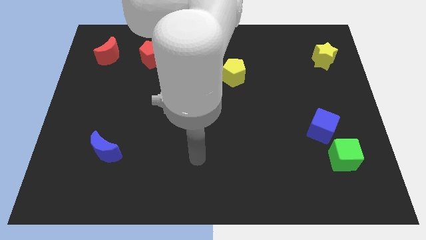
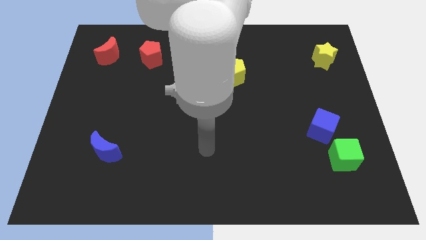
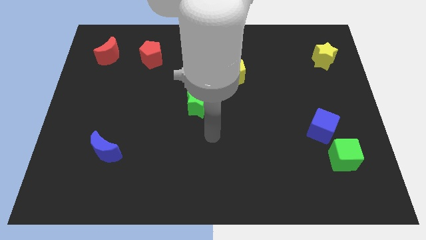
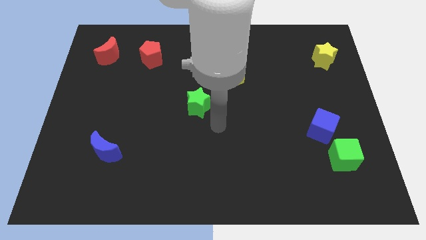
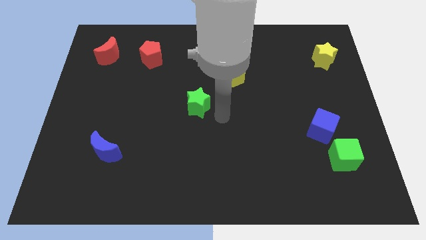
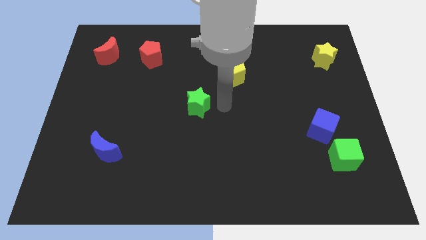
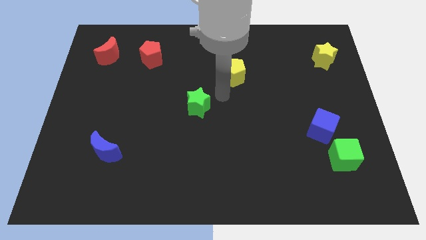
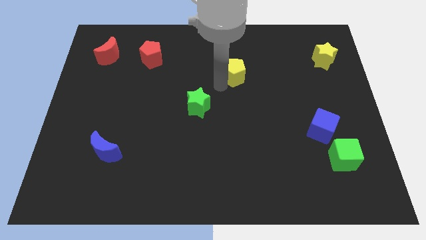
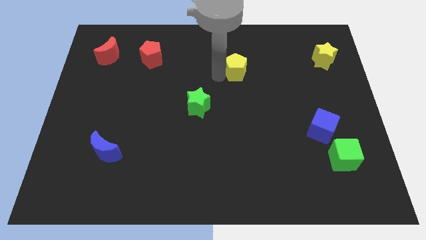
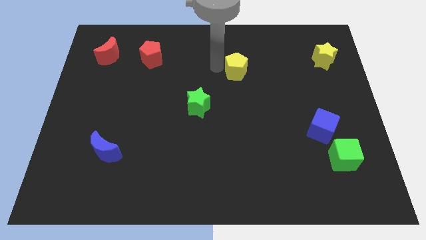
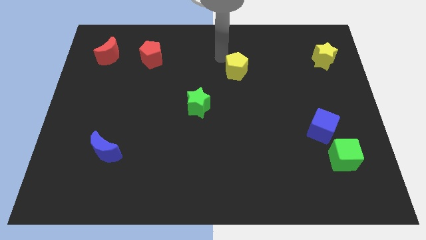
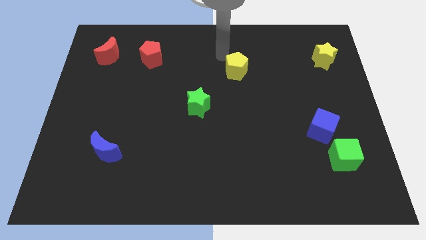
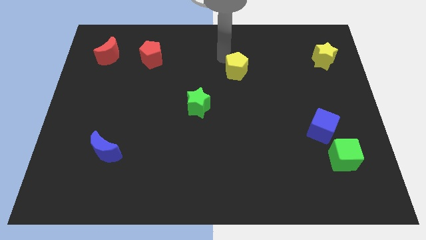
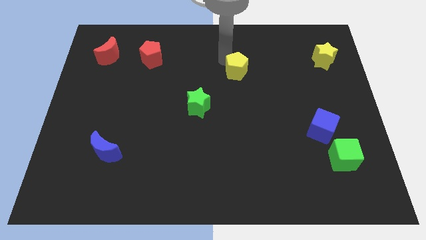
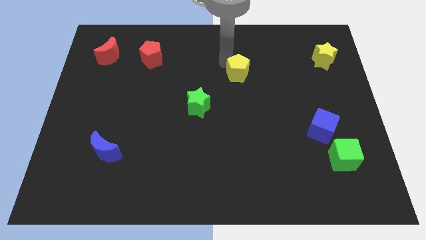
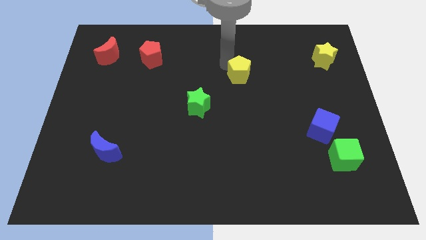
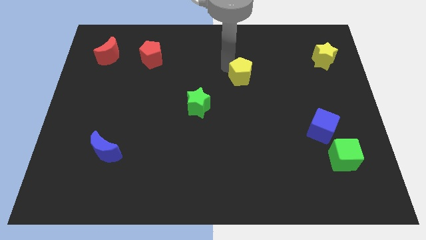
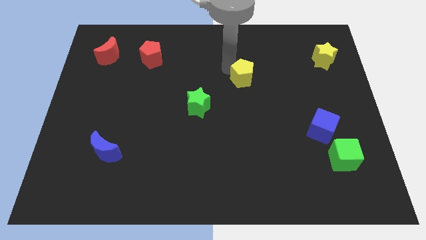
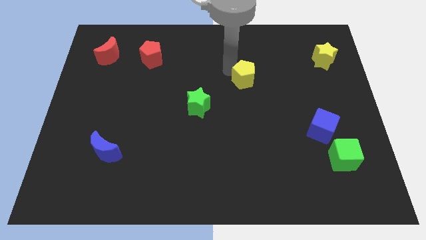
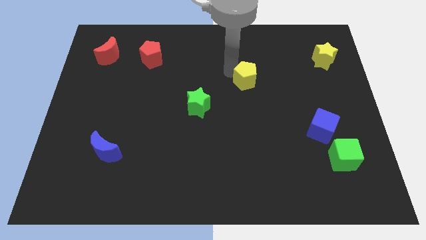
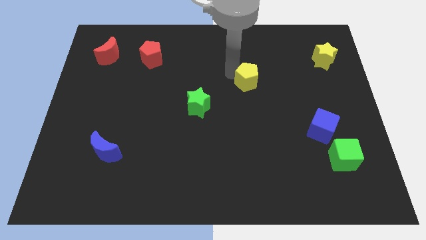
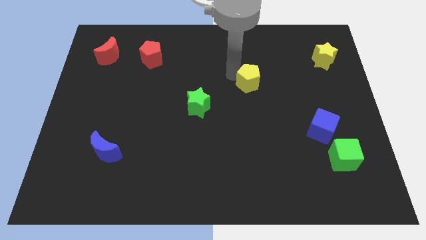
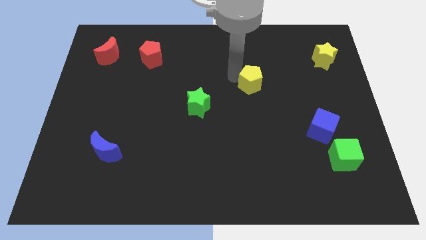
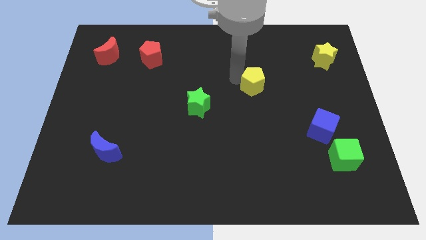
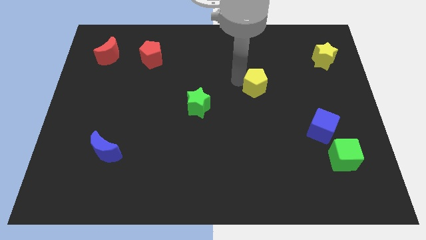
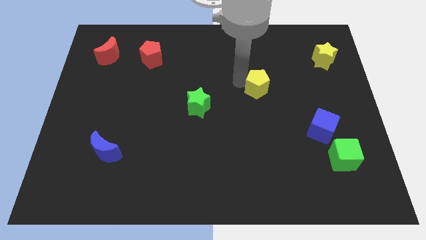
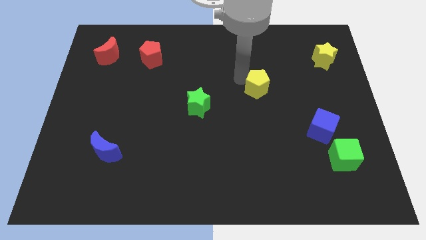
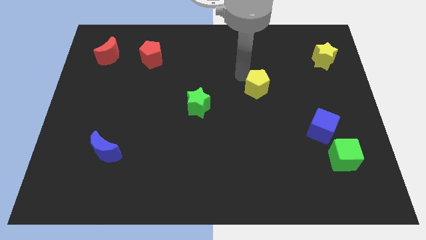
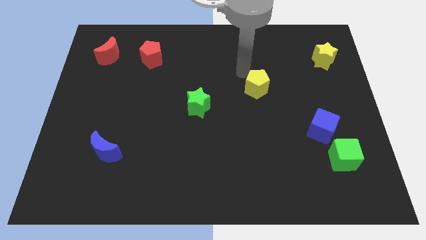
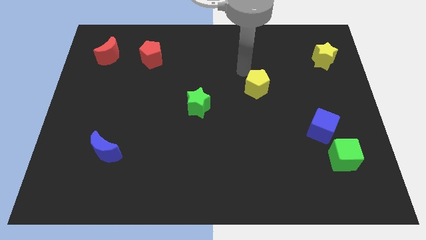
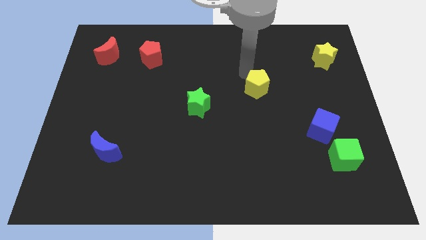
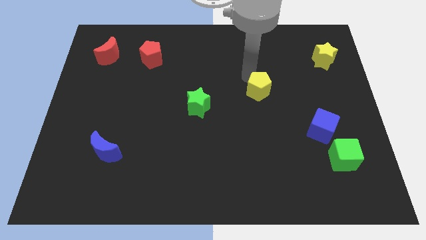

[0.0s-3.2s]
slightly move the yellow pentagon downwards and to the right

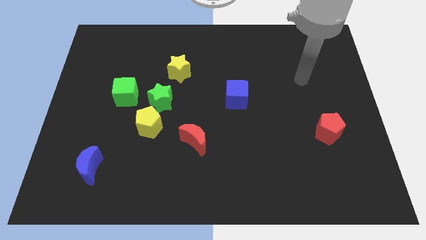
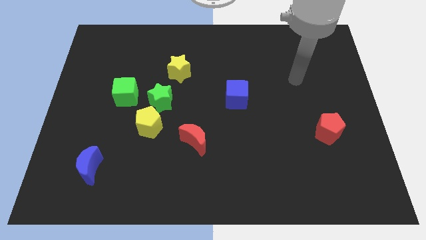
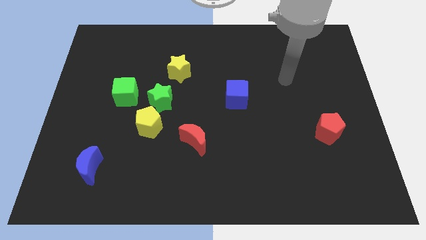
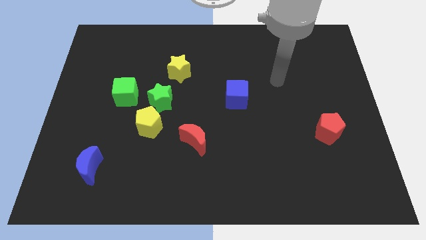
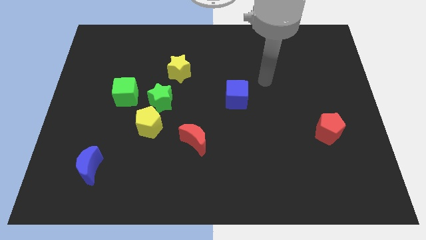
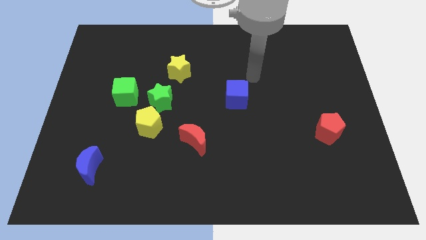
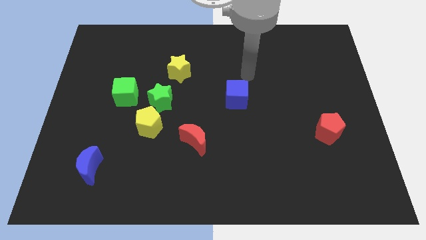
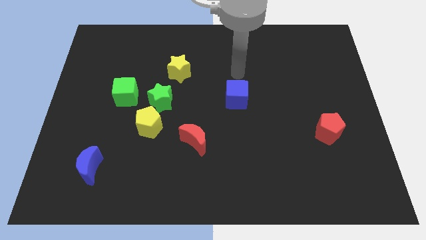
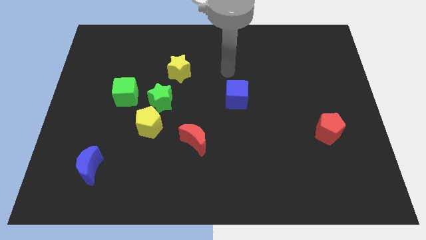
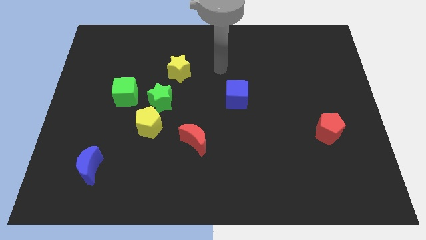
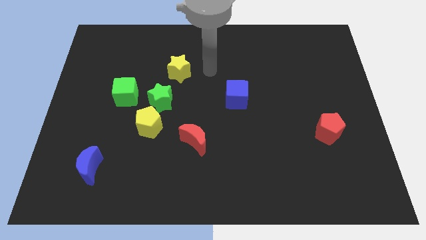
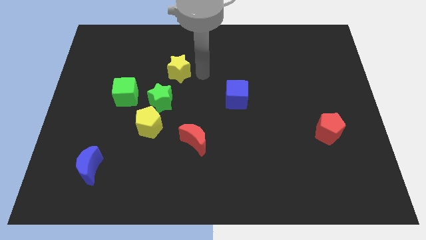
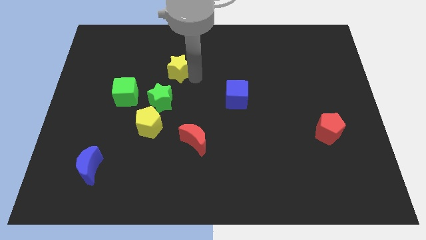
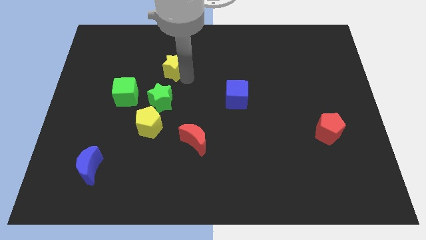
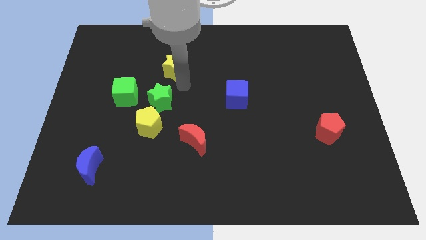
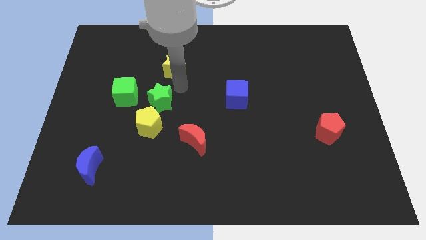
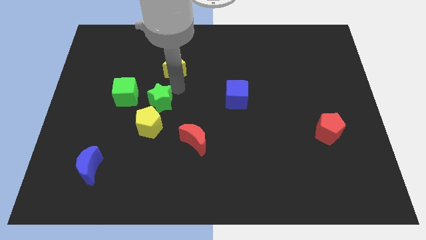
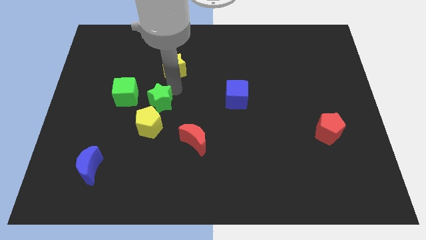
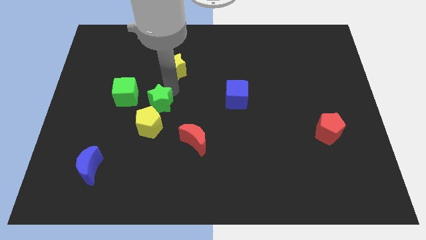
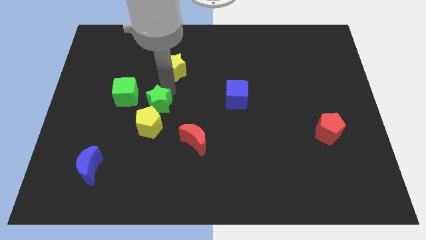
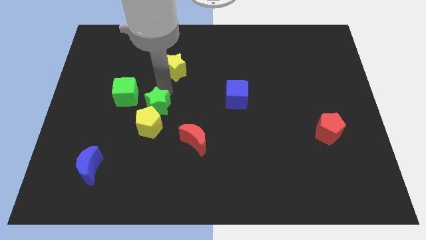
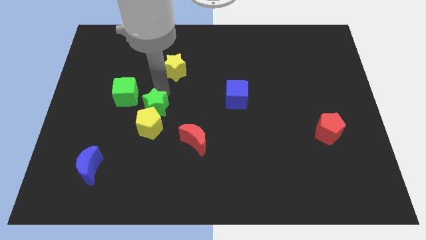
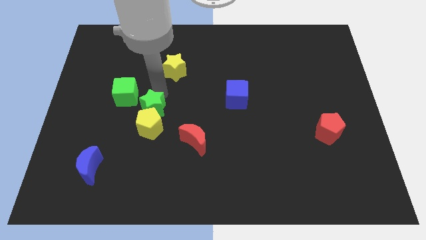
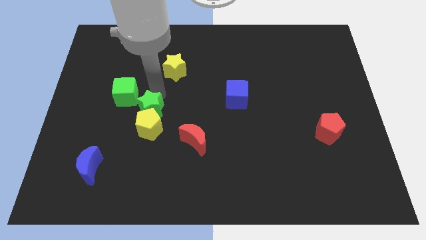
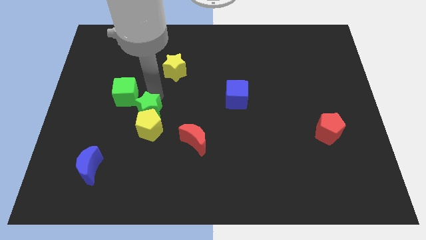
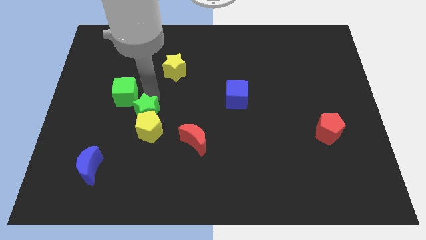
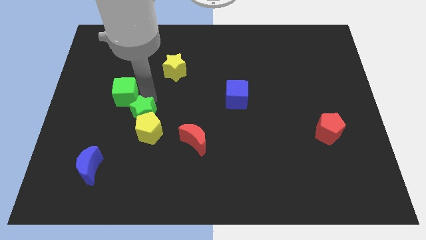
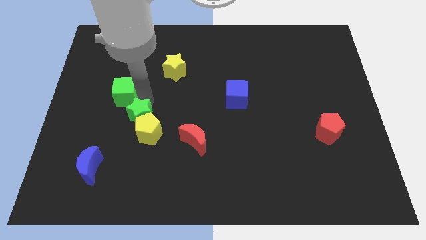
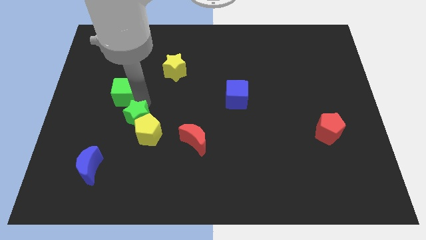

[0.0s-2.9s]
slide the green star diagonally down and to the left a little

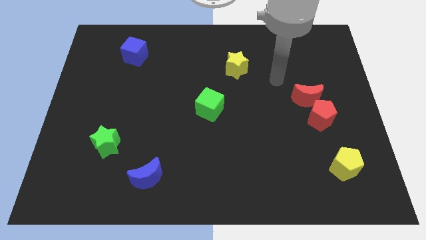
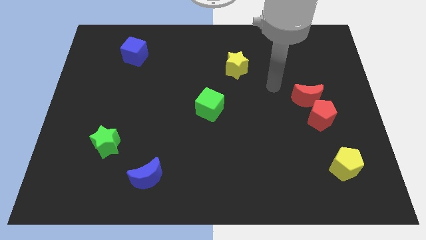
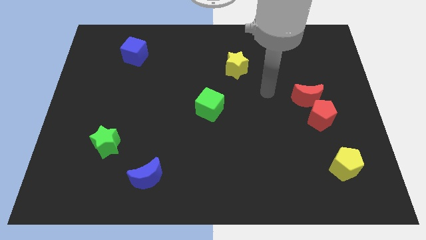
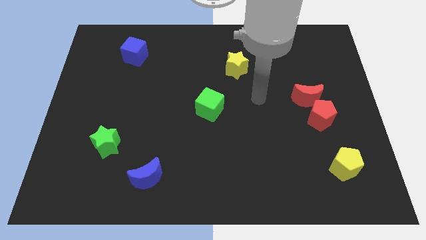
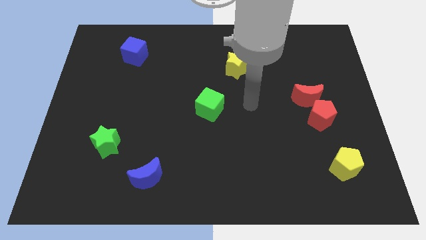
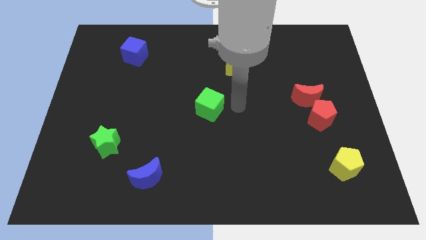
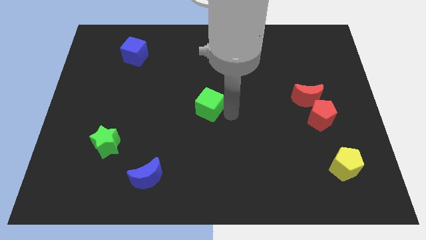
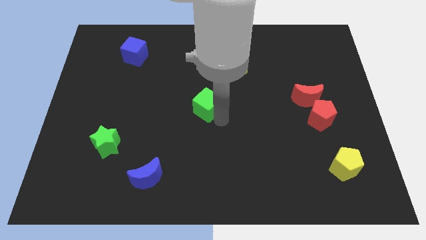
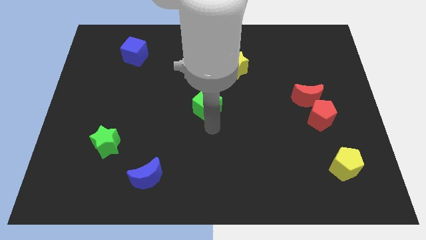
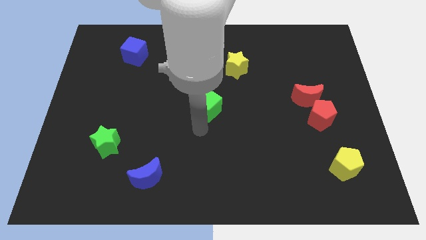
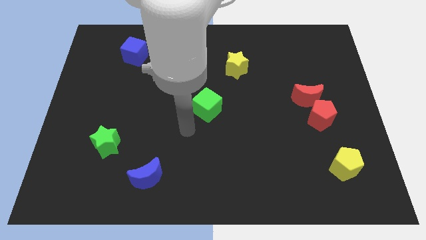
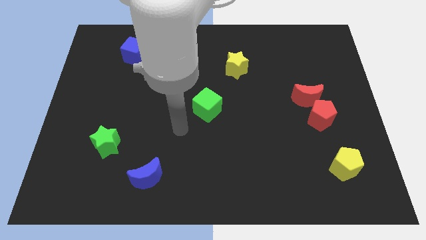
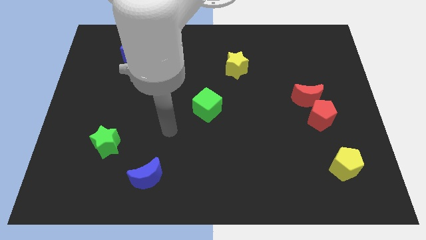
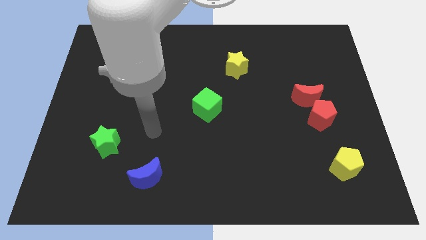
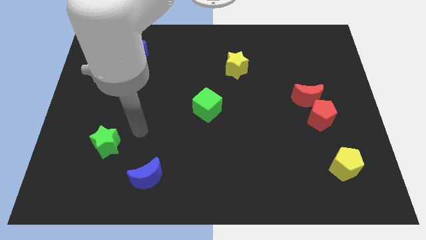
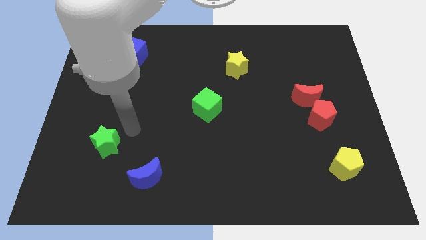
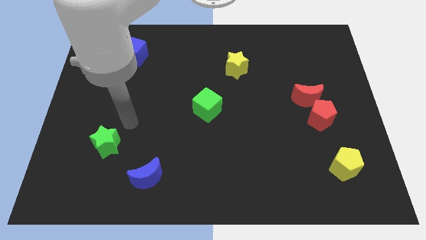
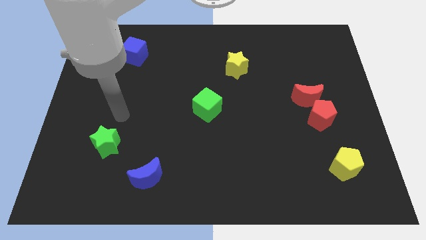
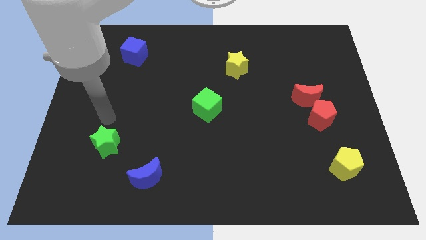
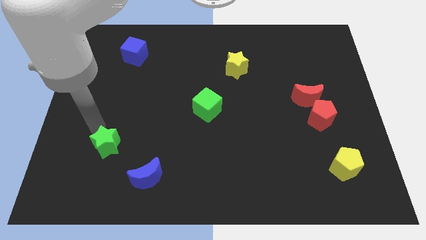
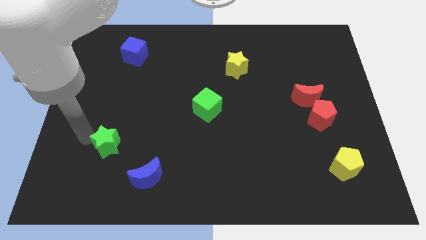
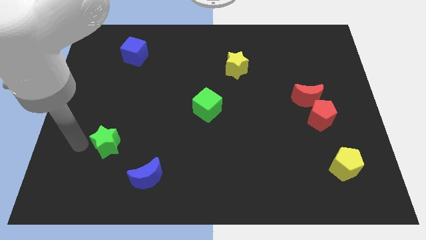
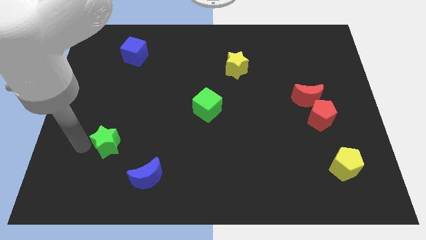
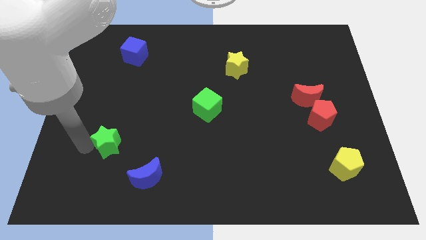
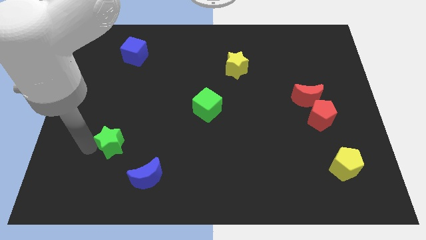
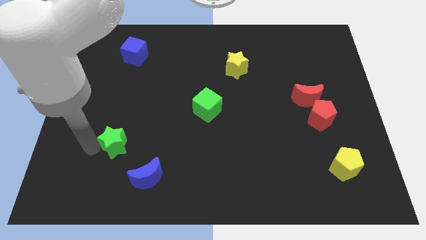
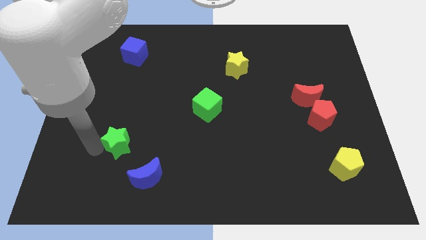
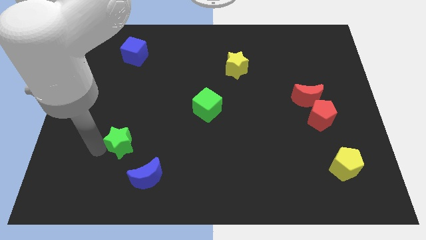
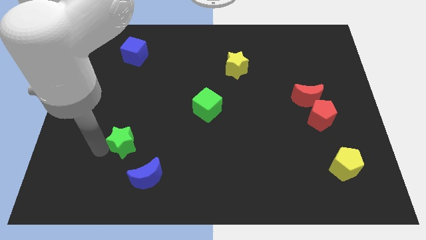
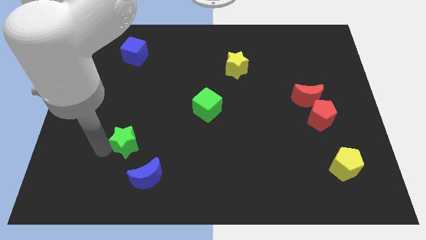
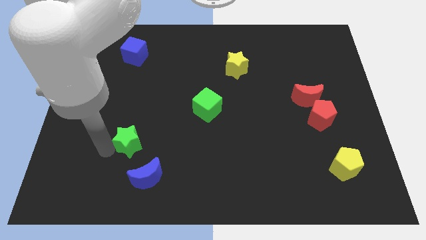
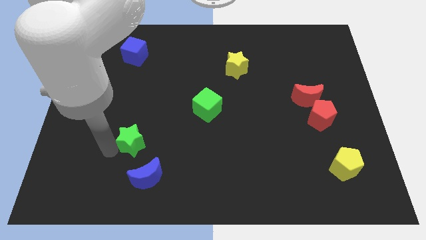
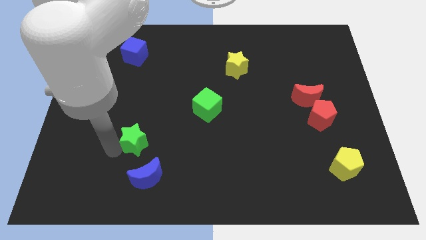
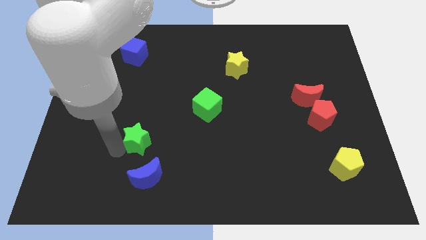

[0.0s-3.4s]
move the green star right a little bit
